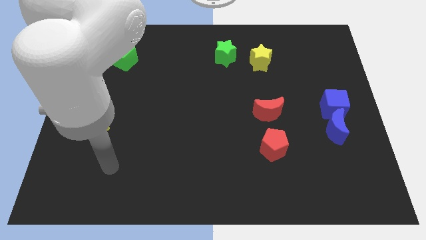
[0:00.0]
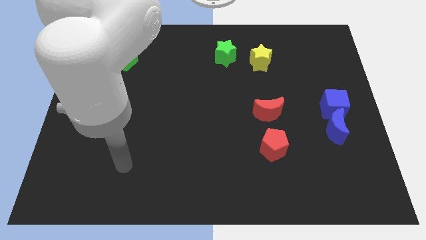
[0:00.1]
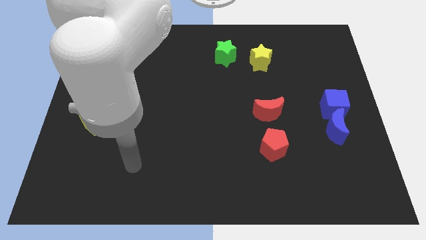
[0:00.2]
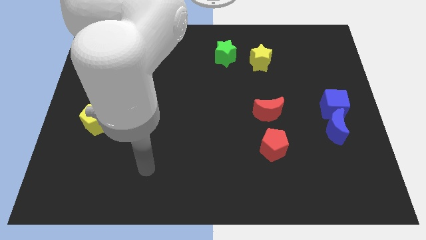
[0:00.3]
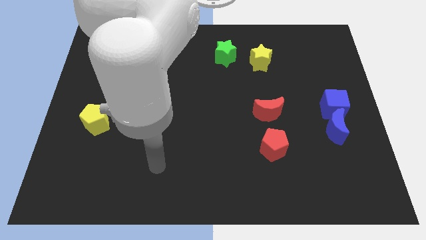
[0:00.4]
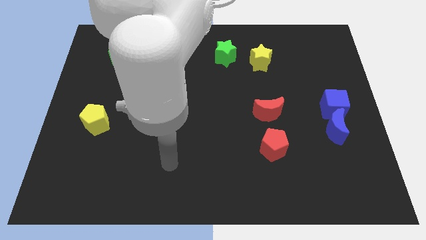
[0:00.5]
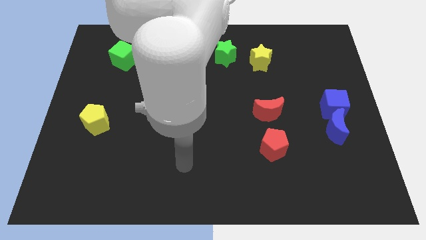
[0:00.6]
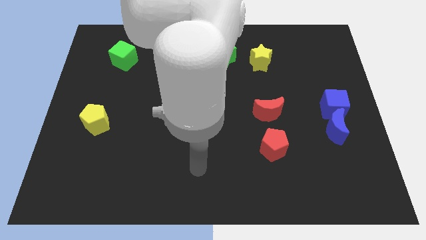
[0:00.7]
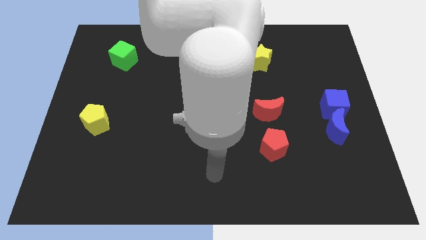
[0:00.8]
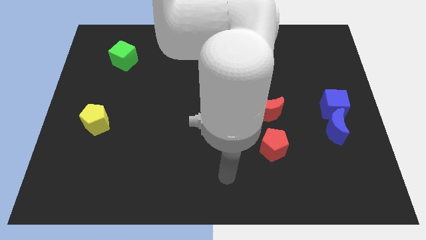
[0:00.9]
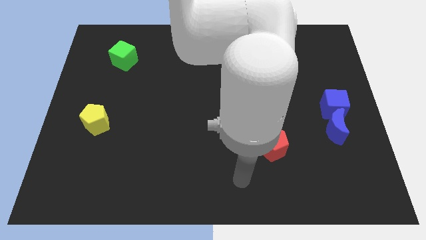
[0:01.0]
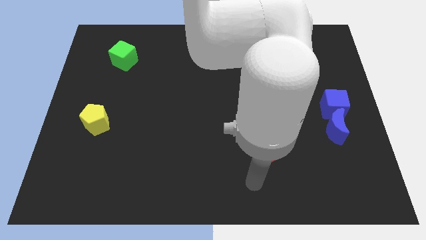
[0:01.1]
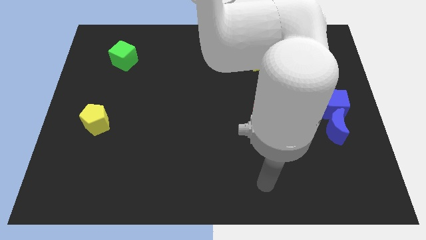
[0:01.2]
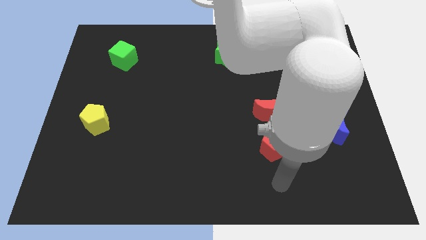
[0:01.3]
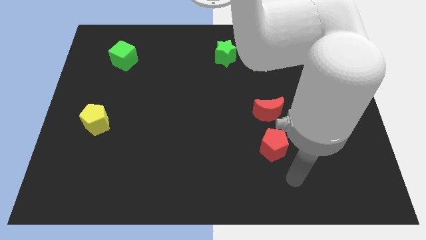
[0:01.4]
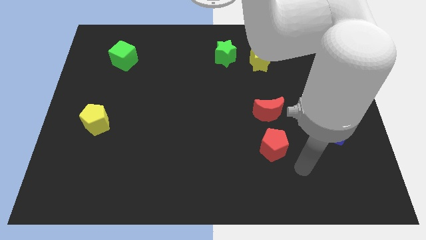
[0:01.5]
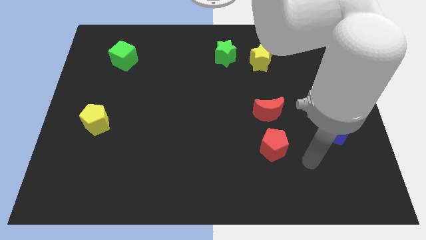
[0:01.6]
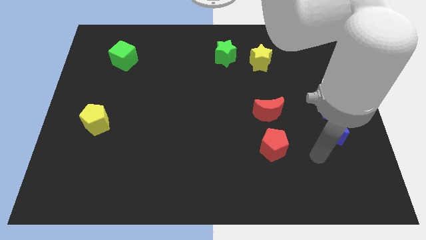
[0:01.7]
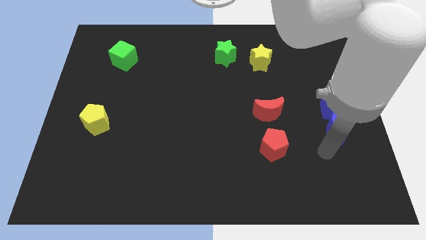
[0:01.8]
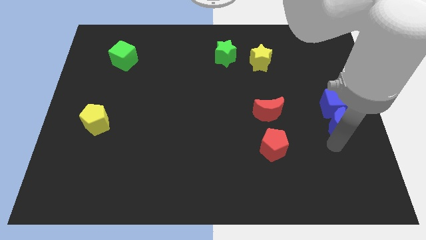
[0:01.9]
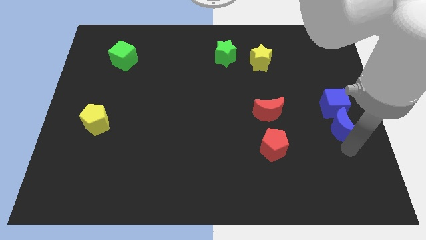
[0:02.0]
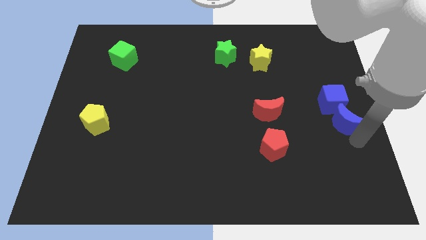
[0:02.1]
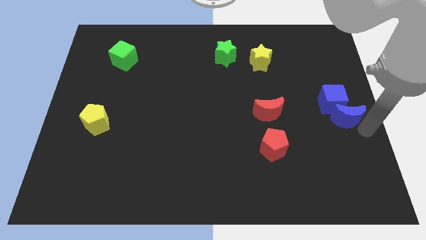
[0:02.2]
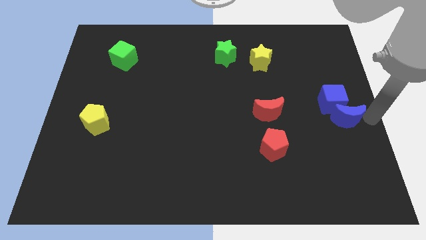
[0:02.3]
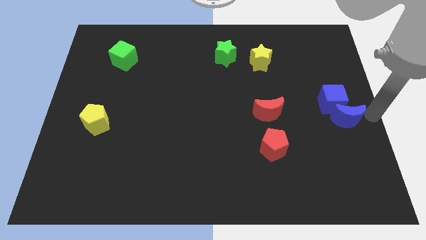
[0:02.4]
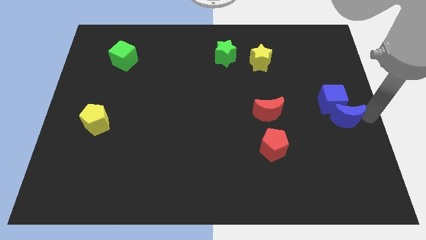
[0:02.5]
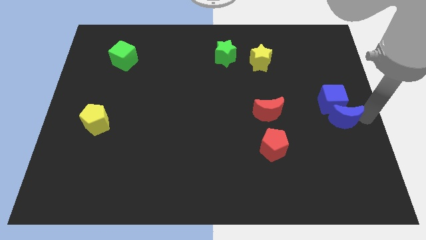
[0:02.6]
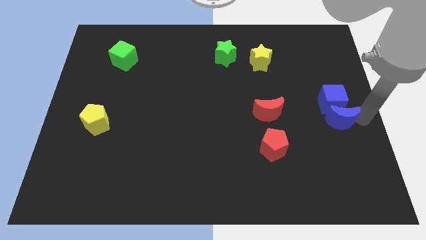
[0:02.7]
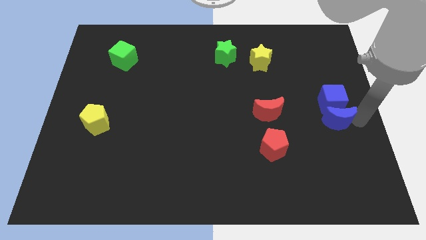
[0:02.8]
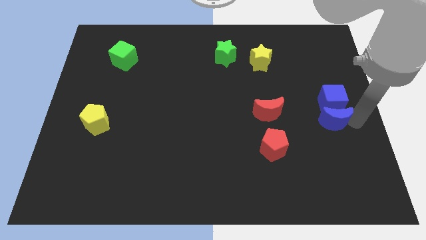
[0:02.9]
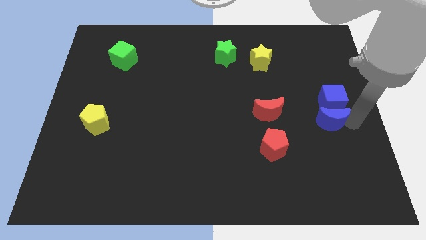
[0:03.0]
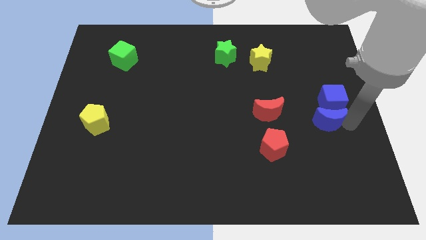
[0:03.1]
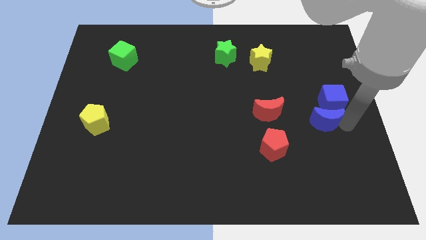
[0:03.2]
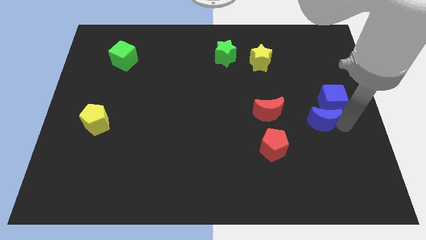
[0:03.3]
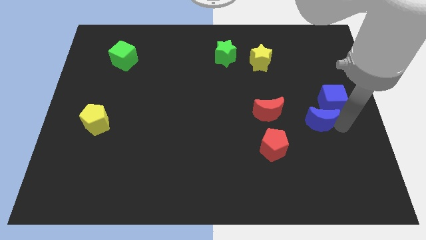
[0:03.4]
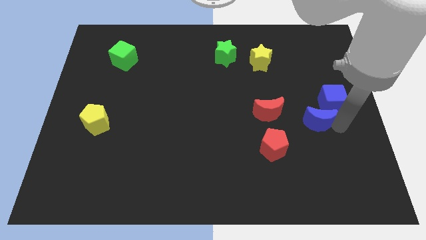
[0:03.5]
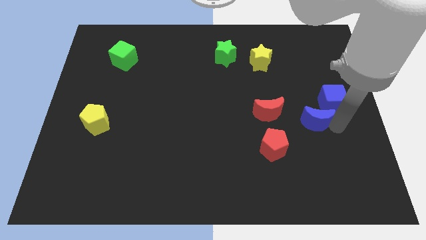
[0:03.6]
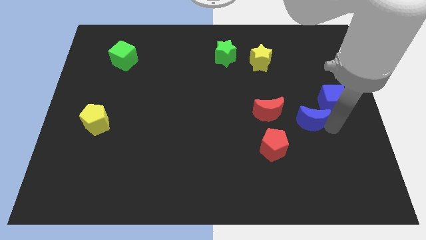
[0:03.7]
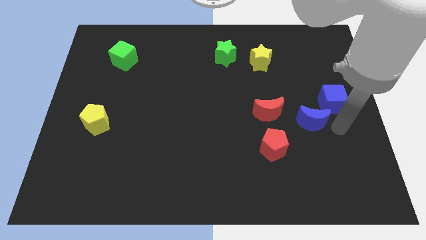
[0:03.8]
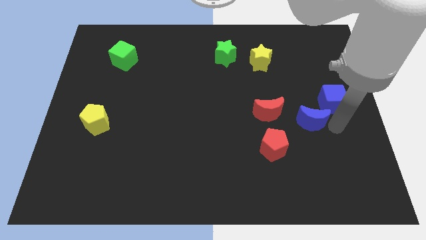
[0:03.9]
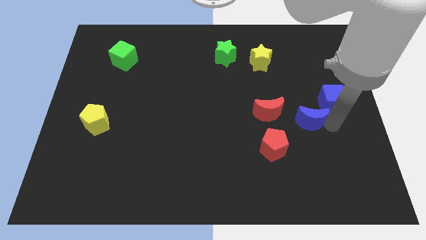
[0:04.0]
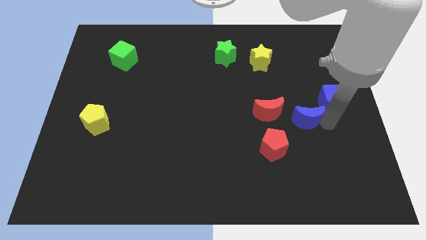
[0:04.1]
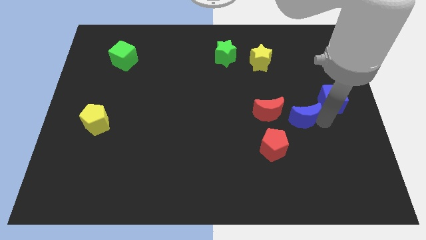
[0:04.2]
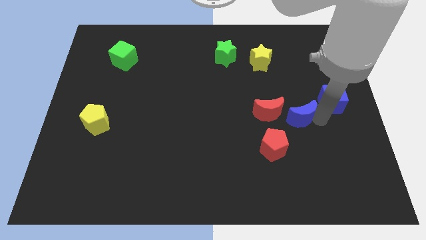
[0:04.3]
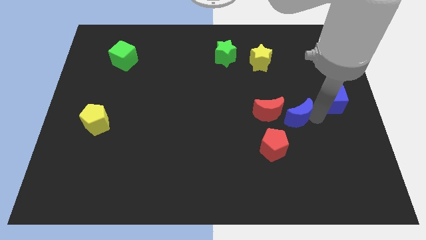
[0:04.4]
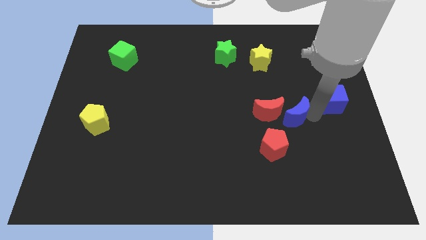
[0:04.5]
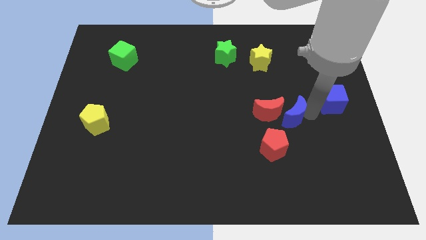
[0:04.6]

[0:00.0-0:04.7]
move the blue moon towards the red moon

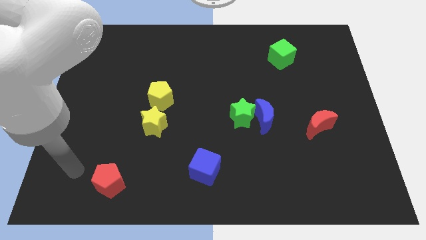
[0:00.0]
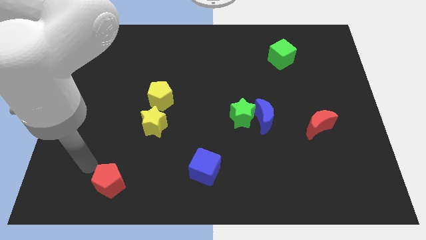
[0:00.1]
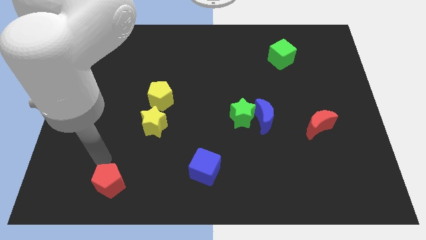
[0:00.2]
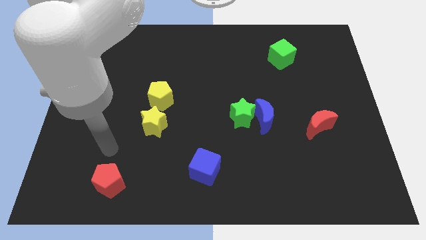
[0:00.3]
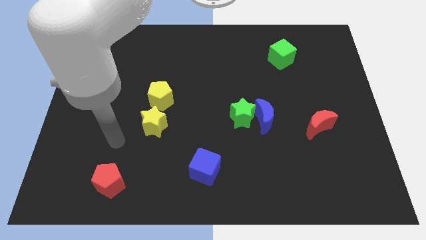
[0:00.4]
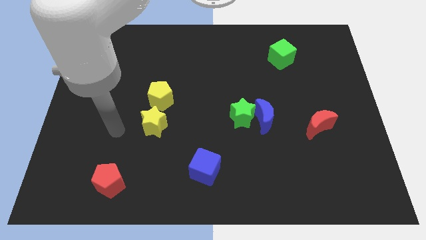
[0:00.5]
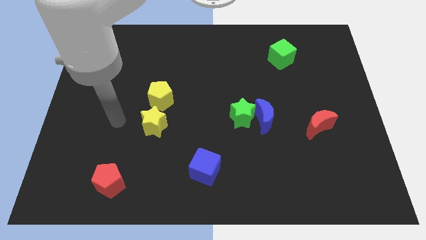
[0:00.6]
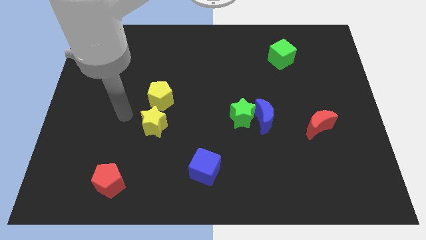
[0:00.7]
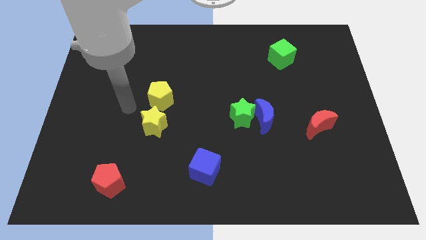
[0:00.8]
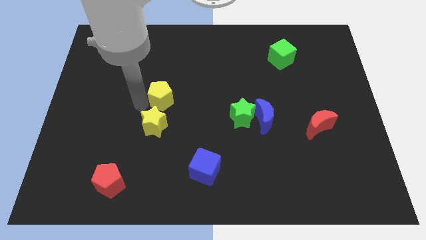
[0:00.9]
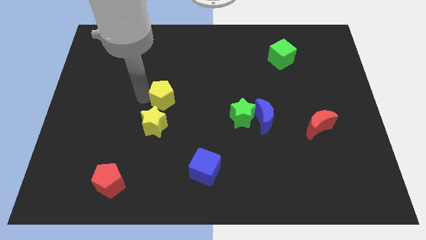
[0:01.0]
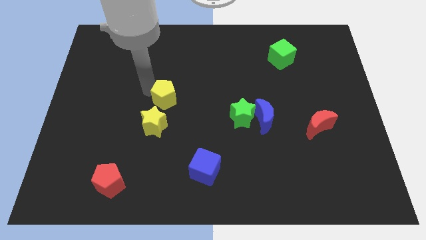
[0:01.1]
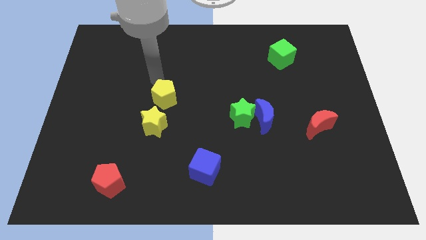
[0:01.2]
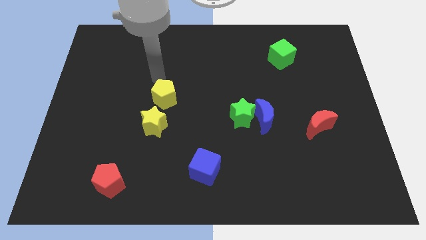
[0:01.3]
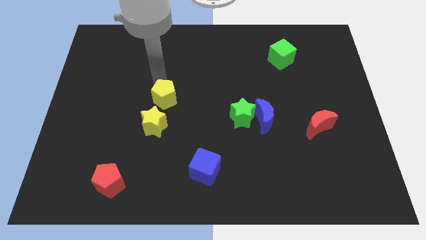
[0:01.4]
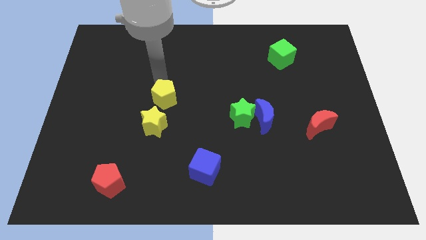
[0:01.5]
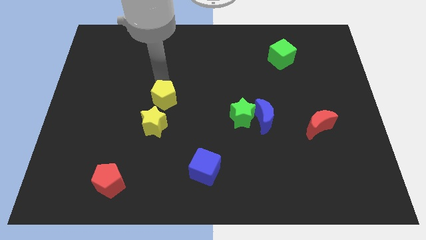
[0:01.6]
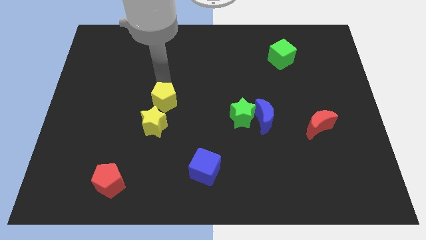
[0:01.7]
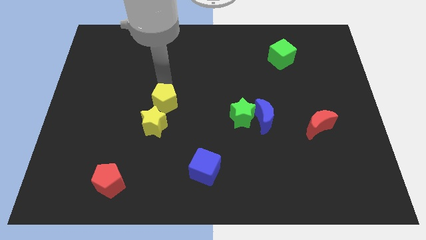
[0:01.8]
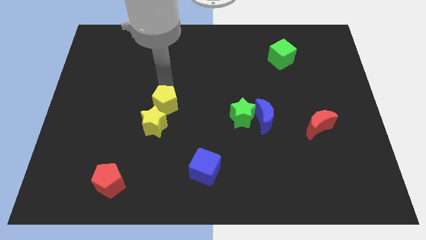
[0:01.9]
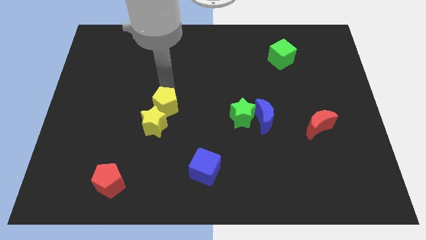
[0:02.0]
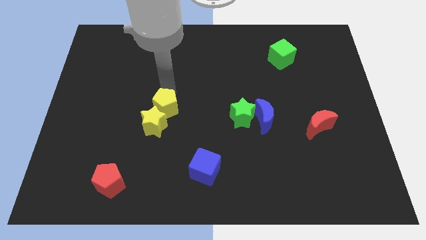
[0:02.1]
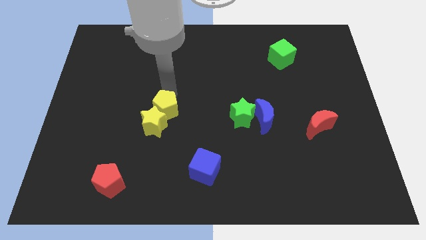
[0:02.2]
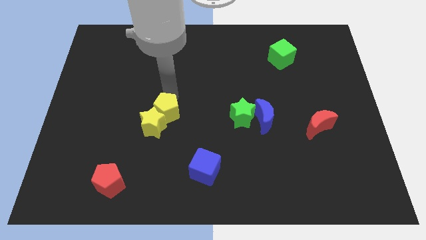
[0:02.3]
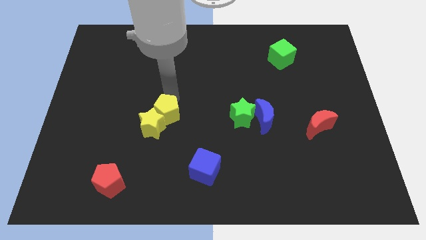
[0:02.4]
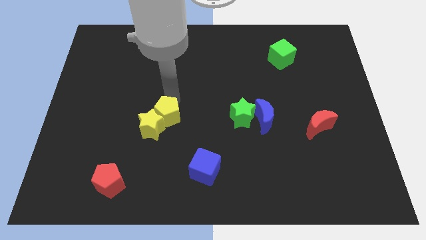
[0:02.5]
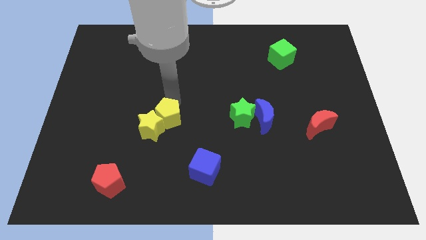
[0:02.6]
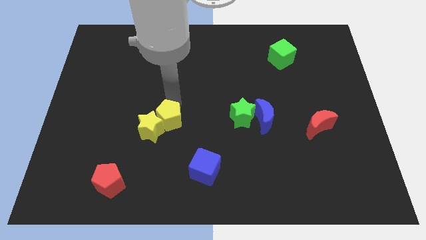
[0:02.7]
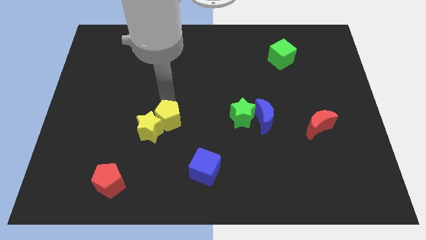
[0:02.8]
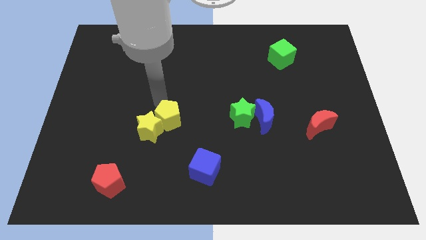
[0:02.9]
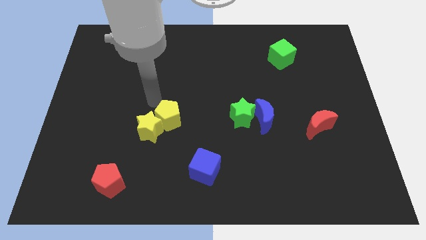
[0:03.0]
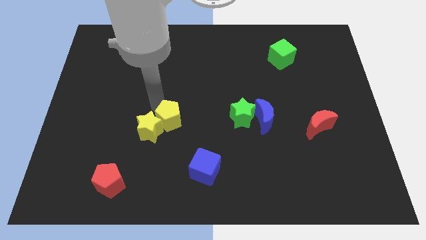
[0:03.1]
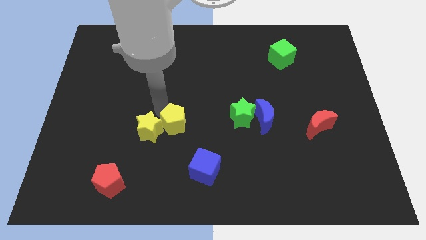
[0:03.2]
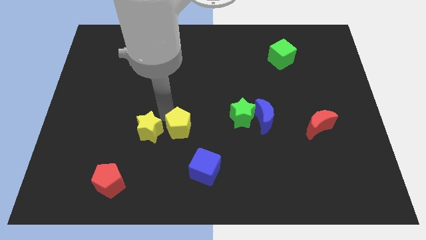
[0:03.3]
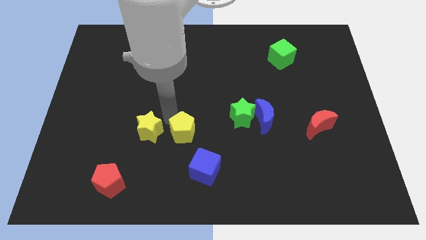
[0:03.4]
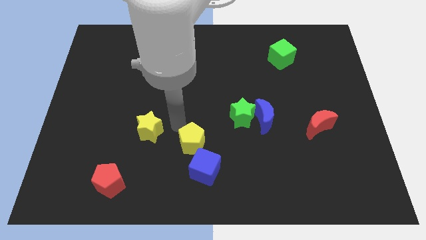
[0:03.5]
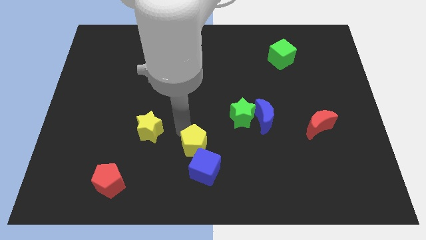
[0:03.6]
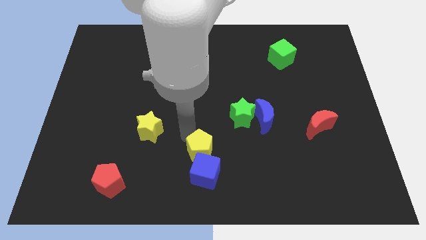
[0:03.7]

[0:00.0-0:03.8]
push the yellow pentagon close to the blue cube
